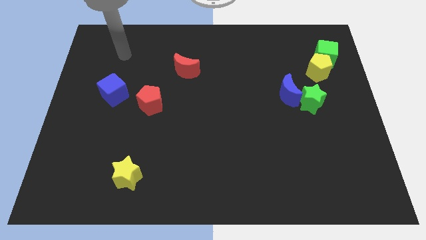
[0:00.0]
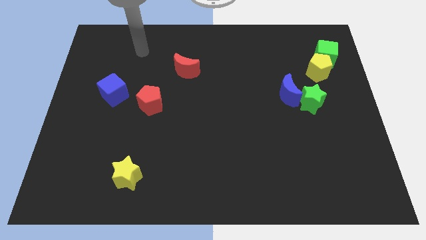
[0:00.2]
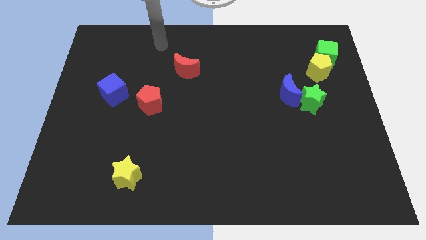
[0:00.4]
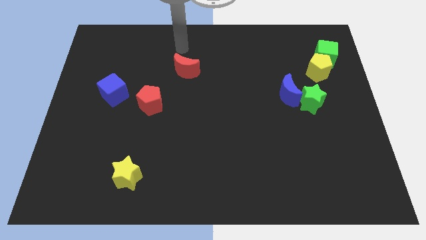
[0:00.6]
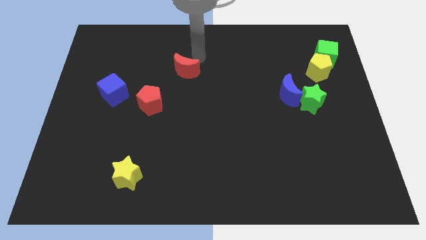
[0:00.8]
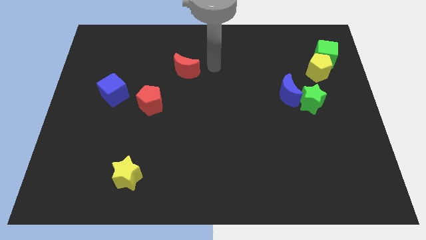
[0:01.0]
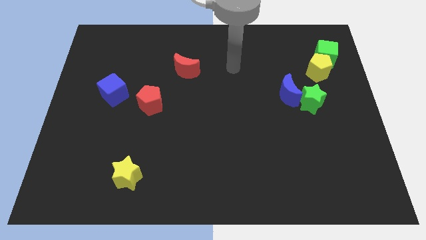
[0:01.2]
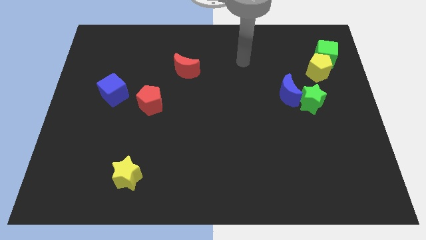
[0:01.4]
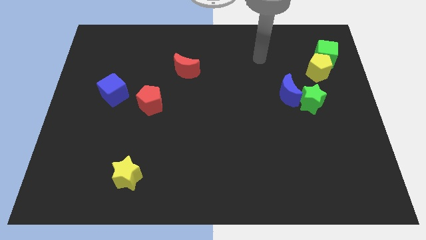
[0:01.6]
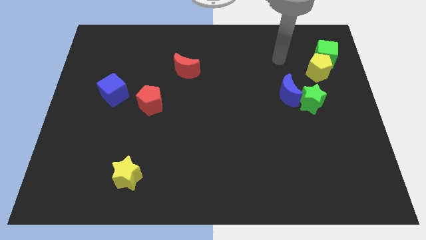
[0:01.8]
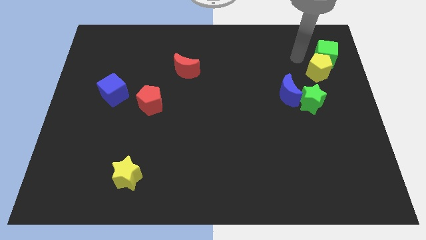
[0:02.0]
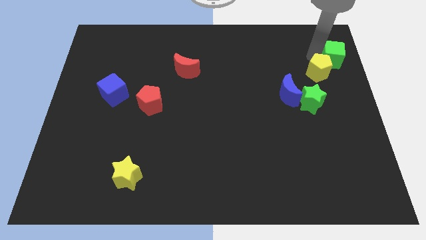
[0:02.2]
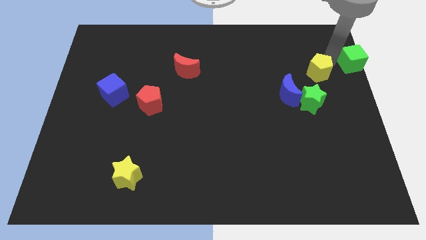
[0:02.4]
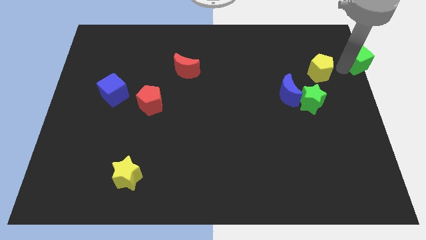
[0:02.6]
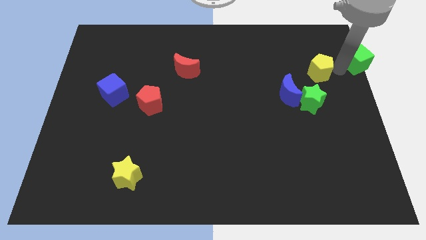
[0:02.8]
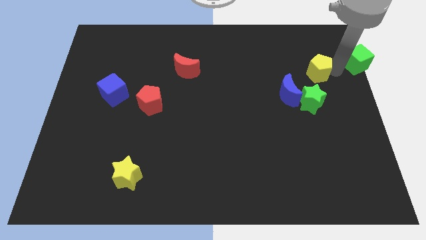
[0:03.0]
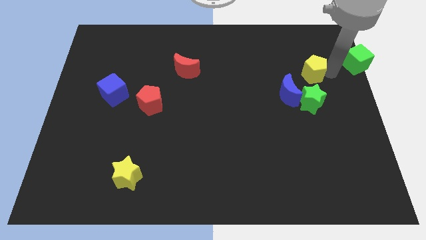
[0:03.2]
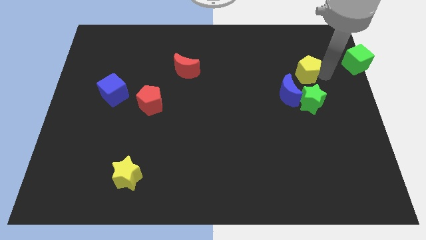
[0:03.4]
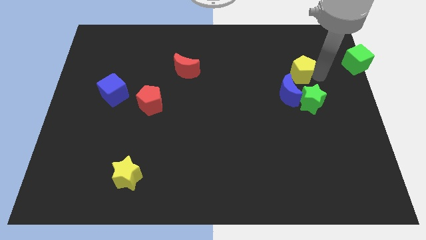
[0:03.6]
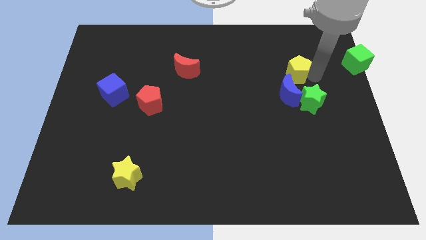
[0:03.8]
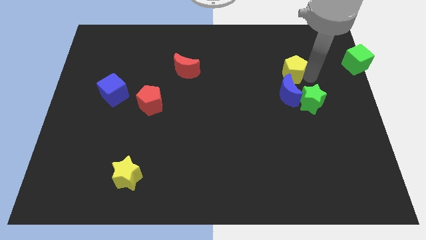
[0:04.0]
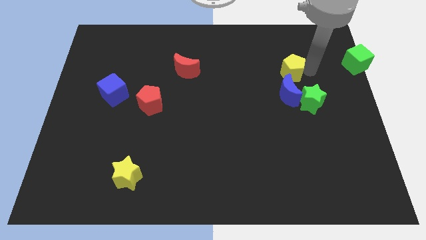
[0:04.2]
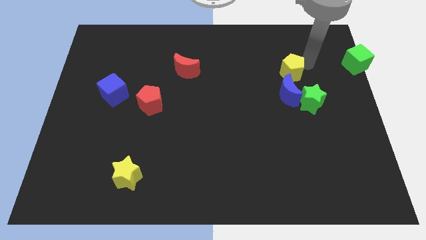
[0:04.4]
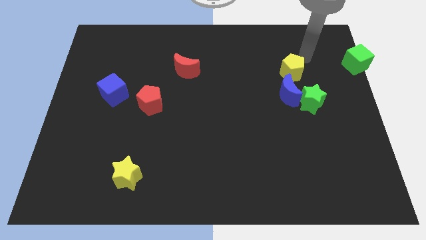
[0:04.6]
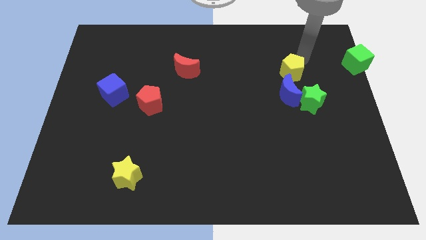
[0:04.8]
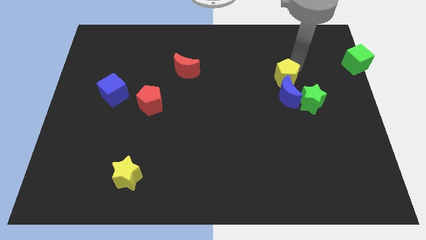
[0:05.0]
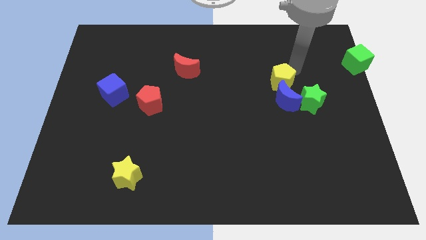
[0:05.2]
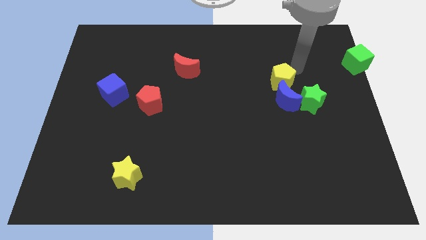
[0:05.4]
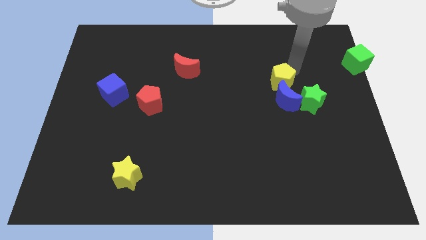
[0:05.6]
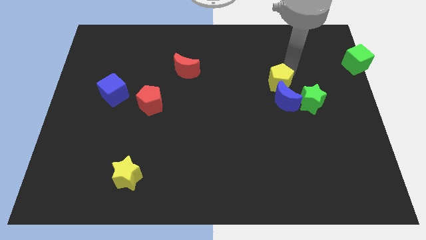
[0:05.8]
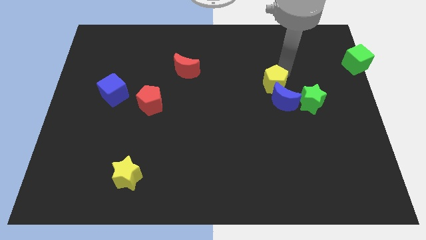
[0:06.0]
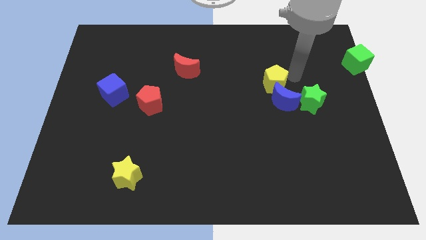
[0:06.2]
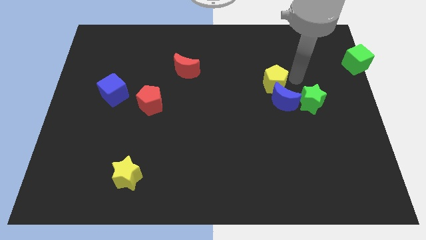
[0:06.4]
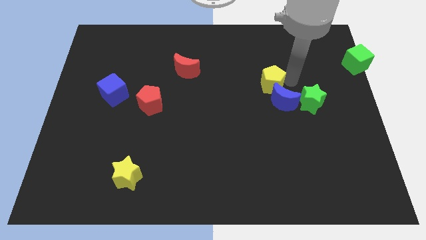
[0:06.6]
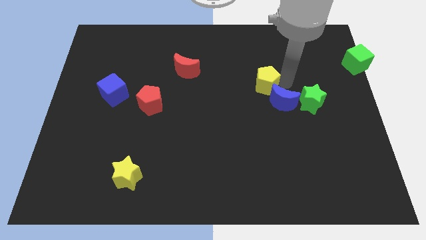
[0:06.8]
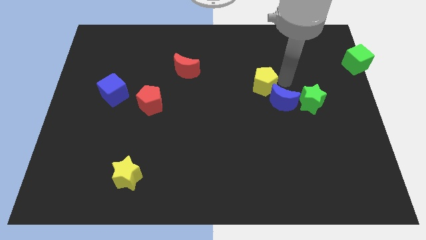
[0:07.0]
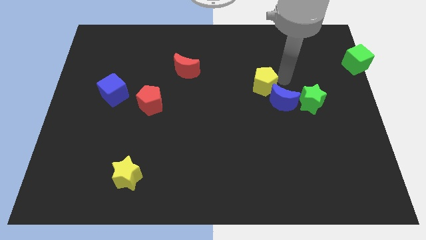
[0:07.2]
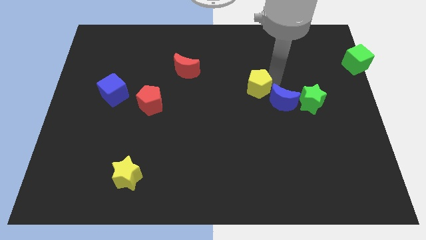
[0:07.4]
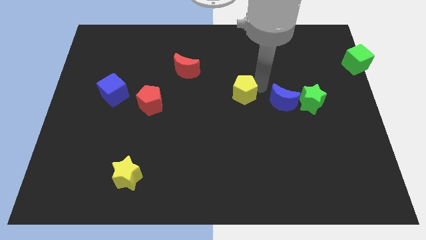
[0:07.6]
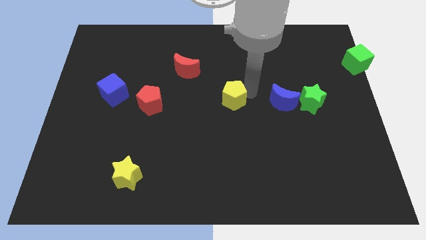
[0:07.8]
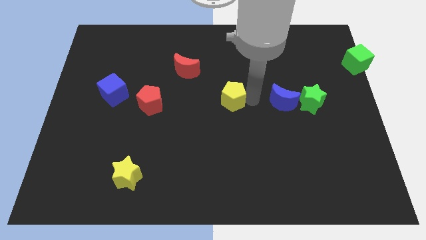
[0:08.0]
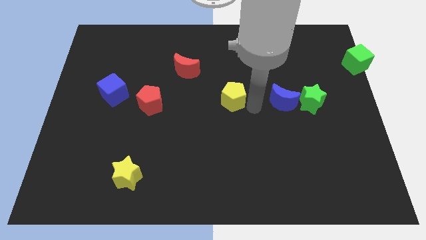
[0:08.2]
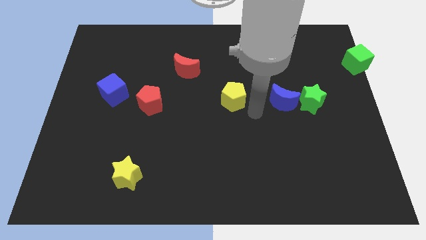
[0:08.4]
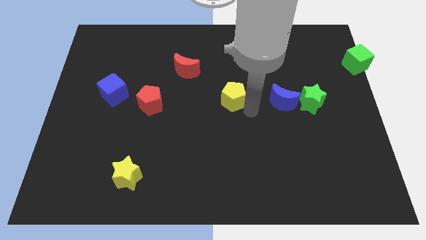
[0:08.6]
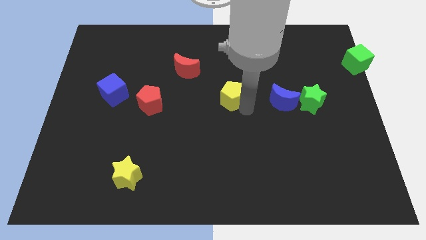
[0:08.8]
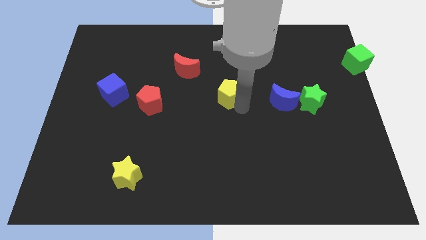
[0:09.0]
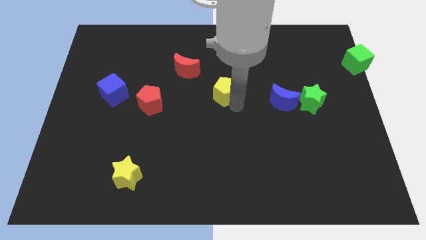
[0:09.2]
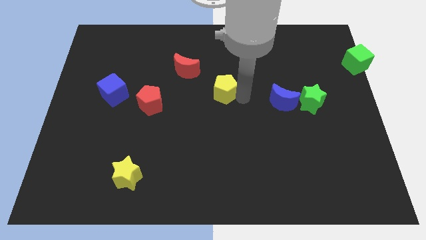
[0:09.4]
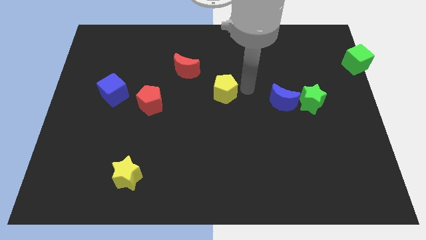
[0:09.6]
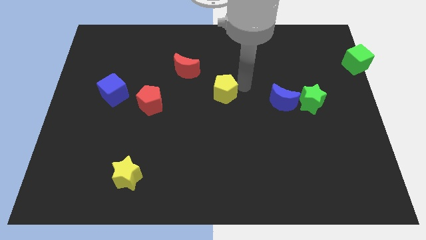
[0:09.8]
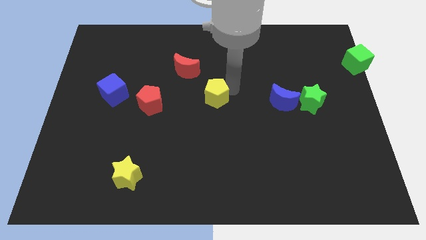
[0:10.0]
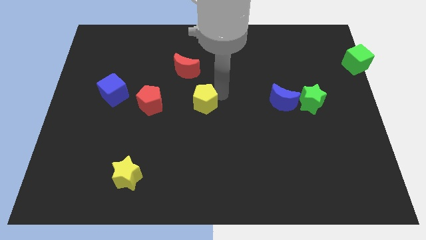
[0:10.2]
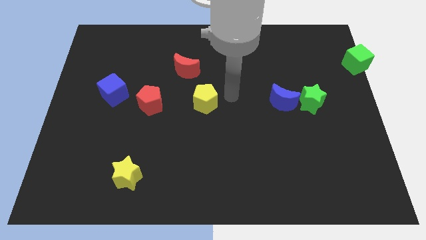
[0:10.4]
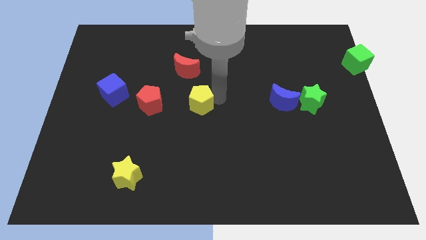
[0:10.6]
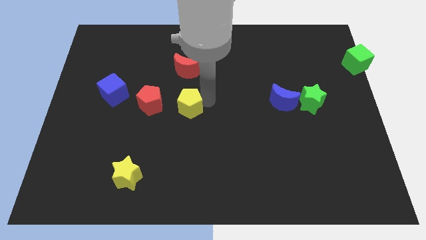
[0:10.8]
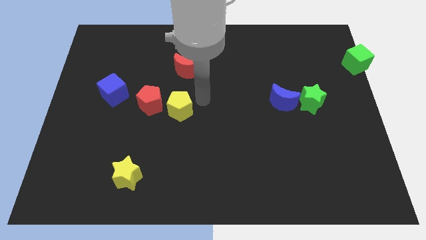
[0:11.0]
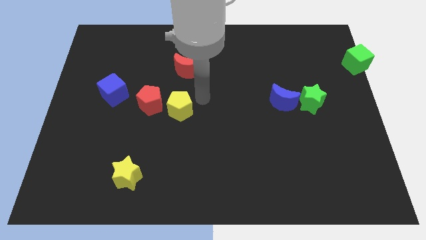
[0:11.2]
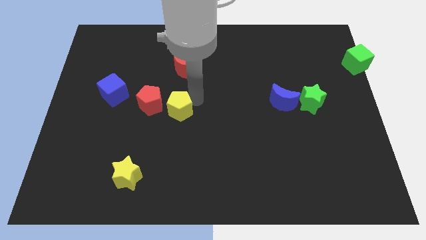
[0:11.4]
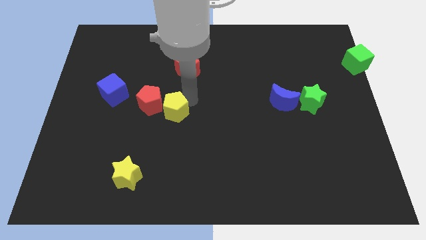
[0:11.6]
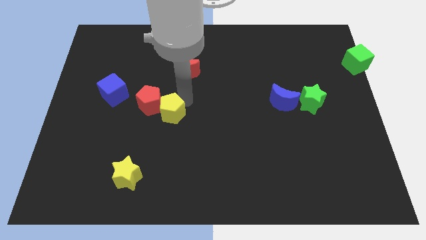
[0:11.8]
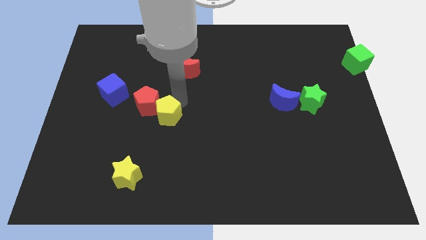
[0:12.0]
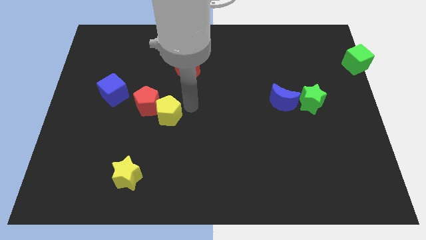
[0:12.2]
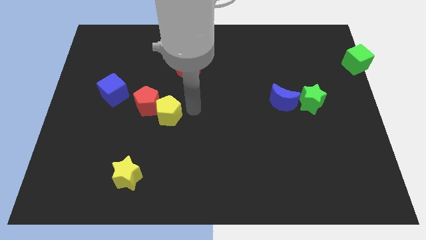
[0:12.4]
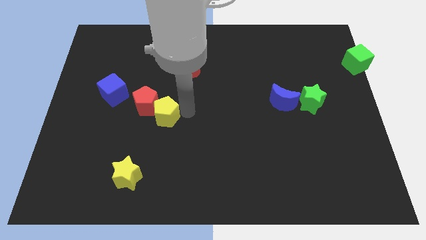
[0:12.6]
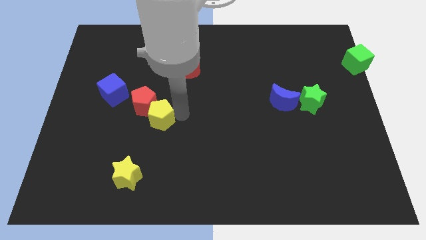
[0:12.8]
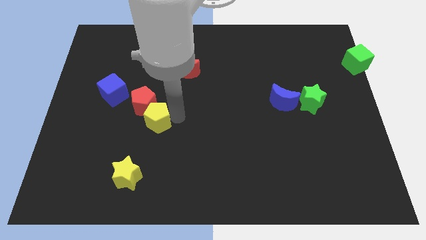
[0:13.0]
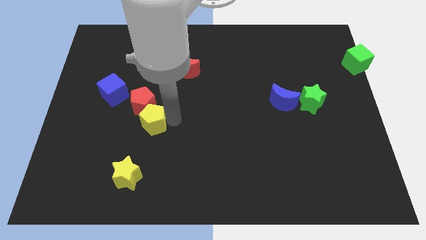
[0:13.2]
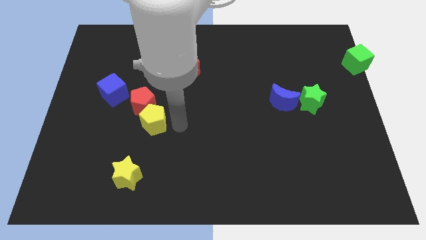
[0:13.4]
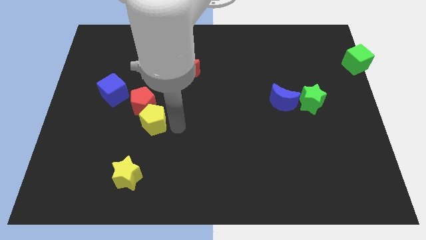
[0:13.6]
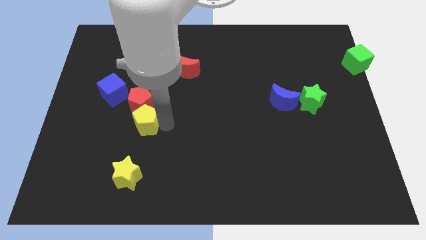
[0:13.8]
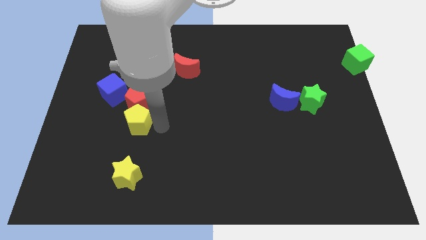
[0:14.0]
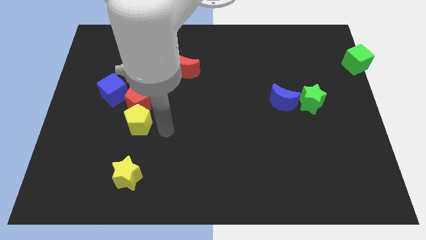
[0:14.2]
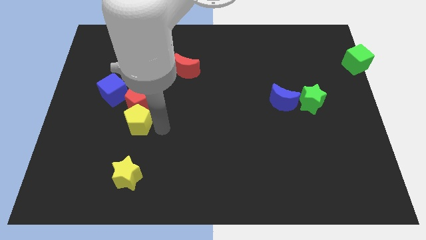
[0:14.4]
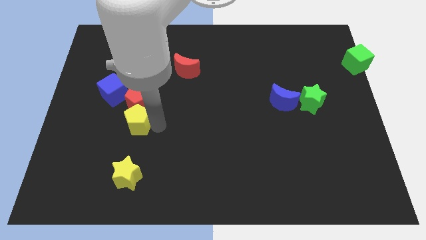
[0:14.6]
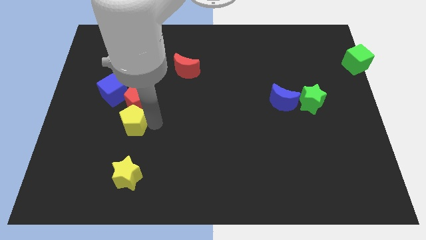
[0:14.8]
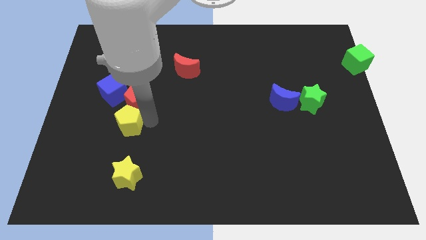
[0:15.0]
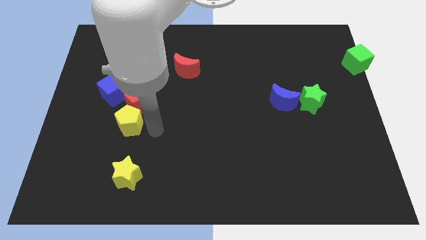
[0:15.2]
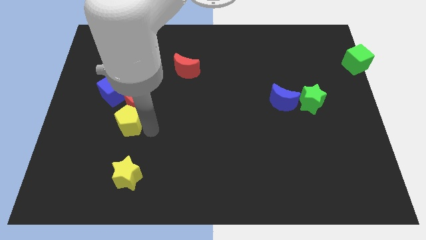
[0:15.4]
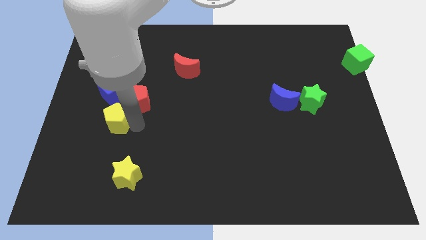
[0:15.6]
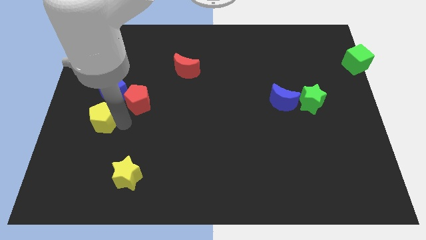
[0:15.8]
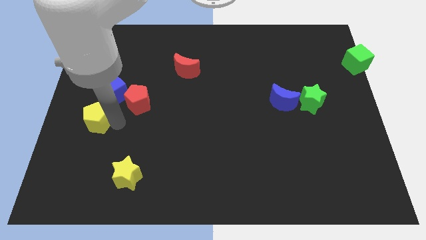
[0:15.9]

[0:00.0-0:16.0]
put the yellow pentagon to the center left
